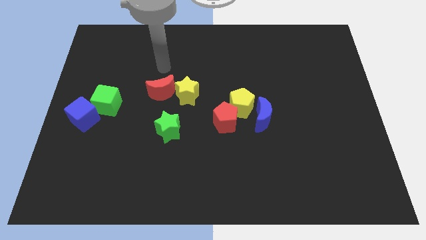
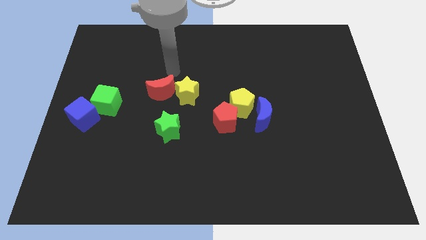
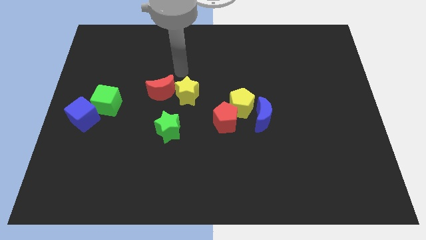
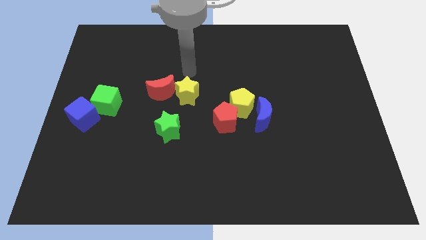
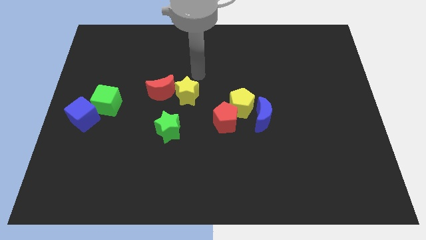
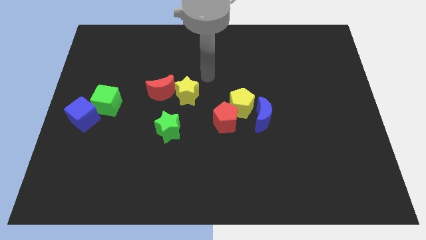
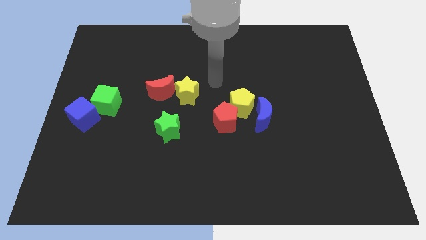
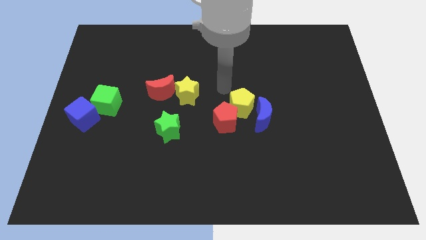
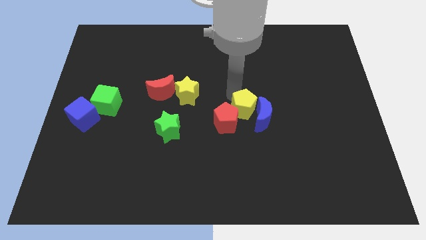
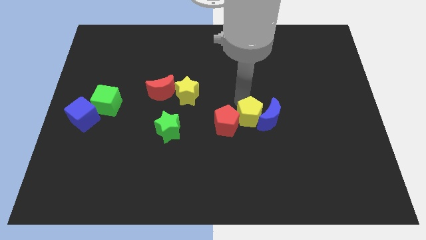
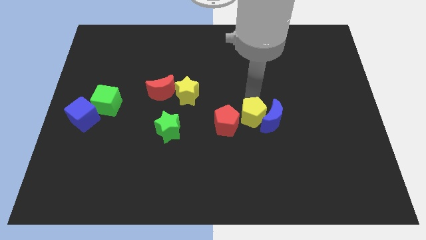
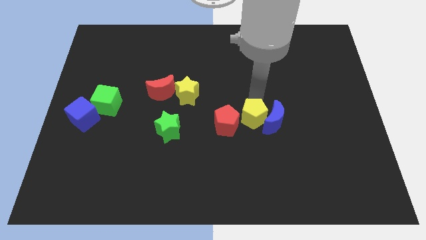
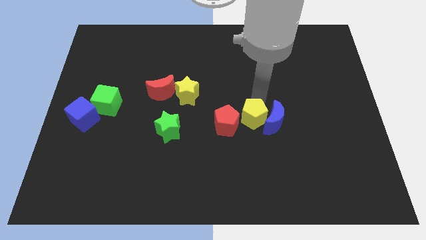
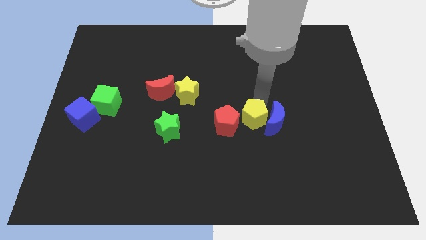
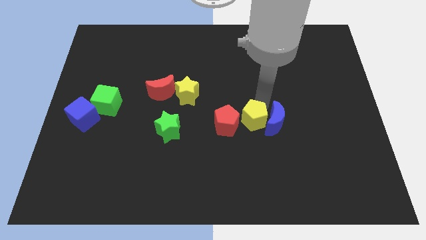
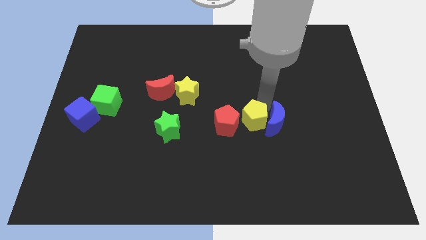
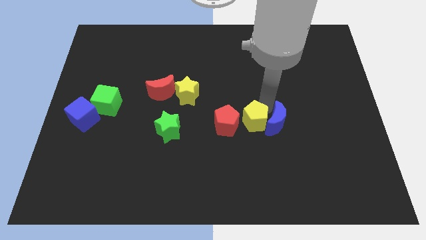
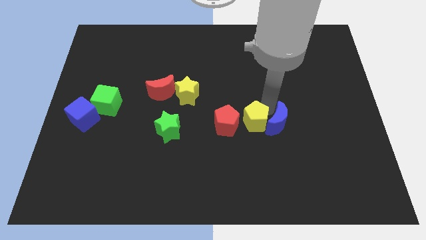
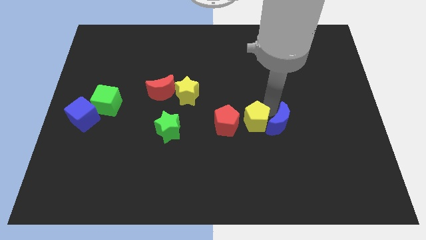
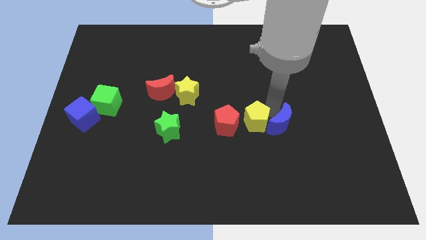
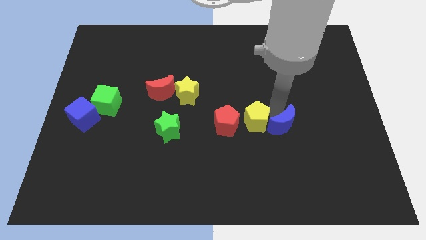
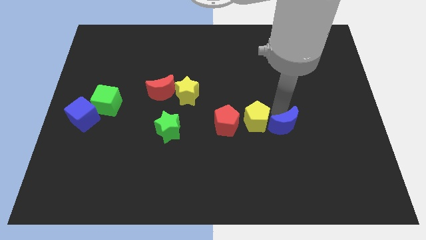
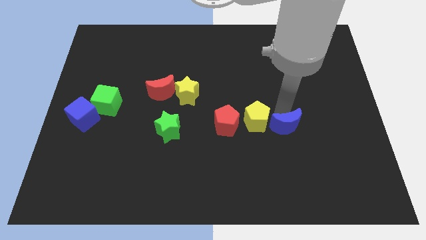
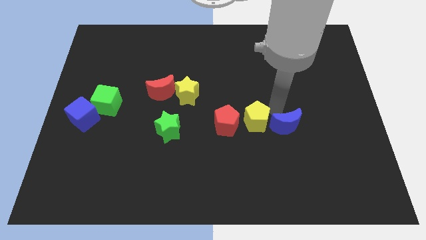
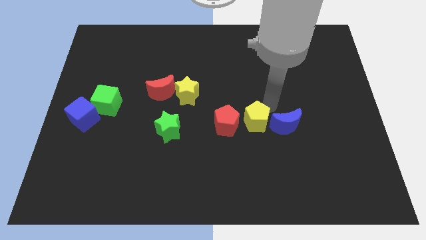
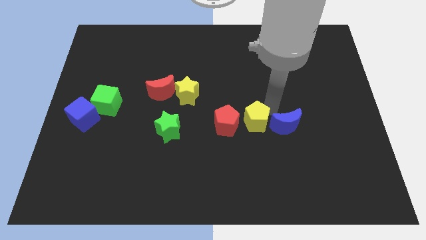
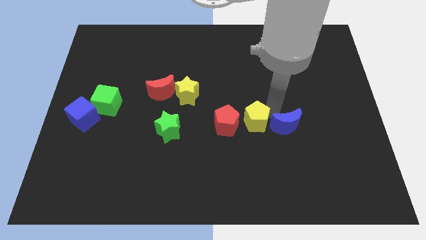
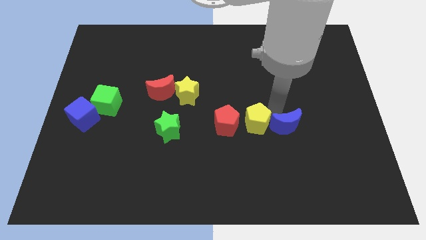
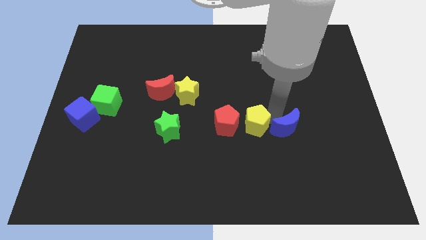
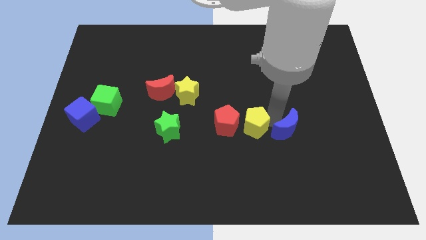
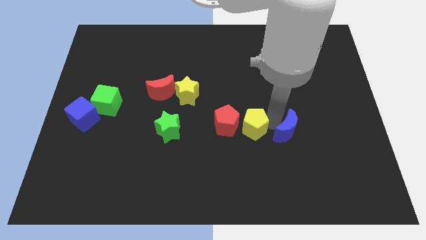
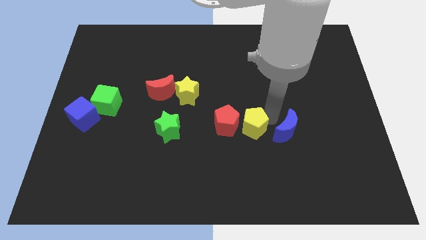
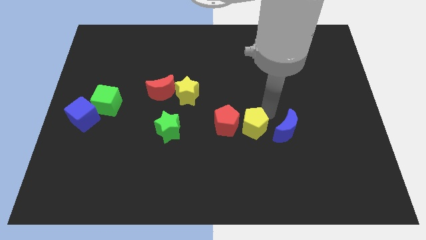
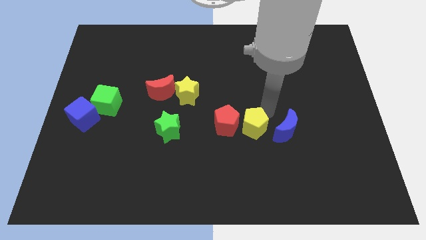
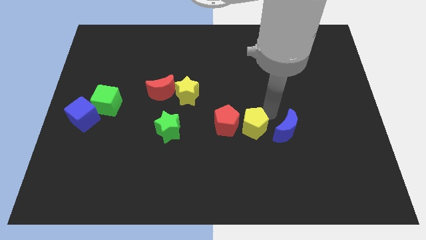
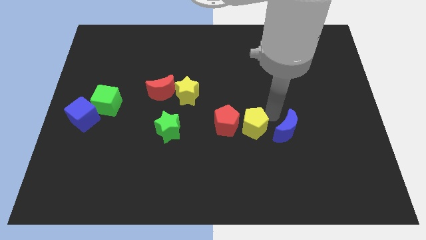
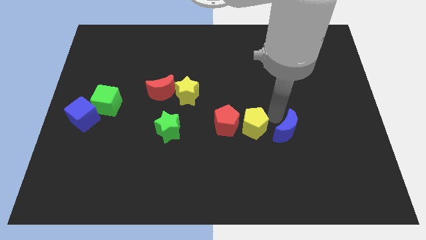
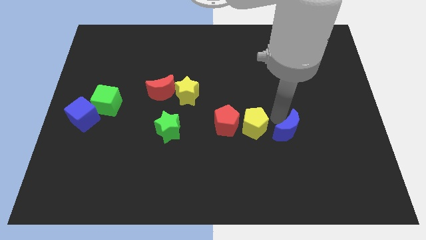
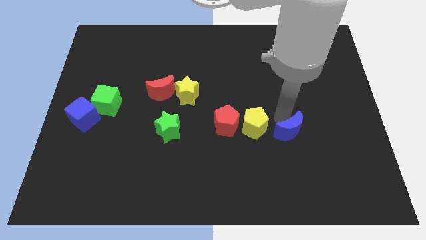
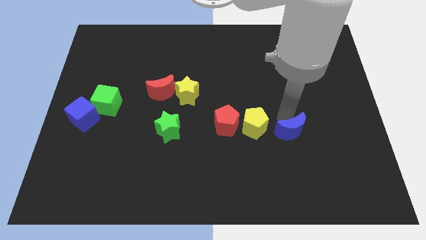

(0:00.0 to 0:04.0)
move the blue moon a little bit down and then to the right

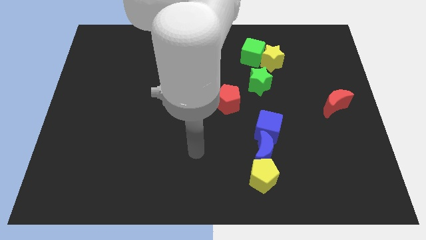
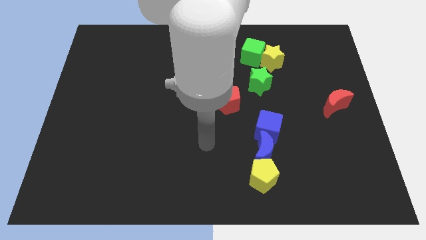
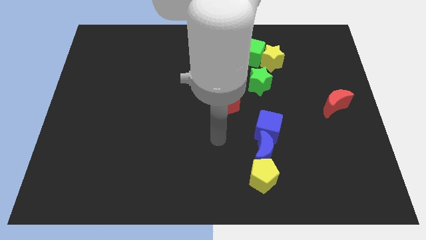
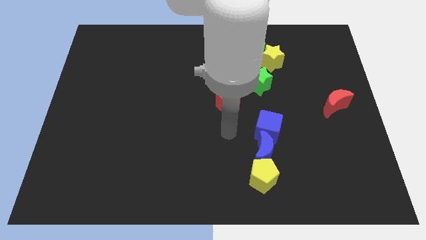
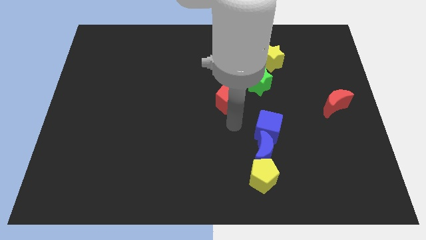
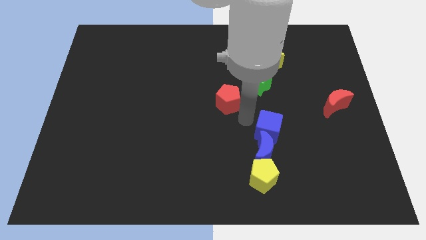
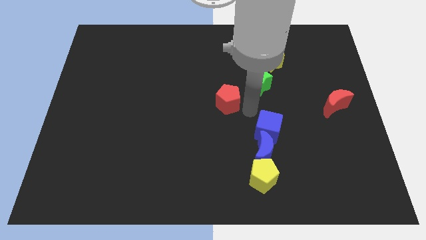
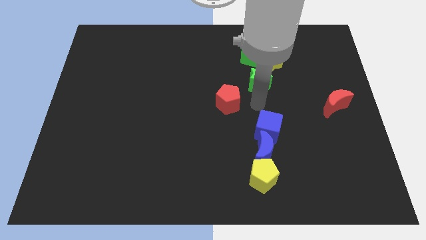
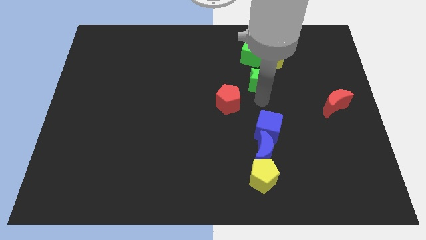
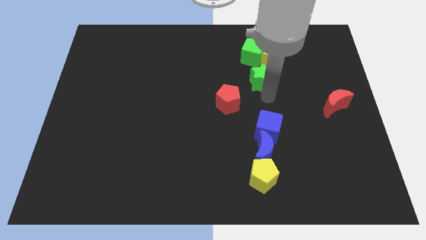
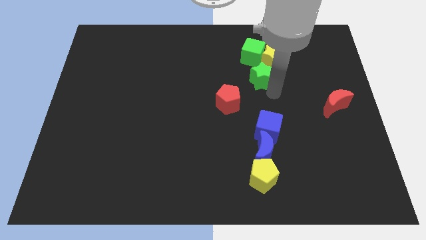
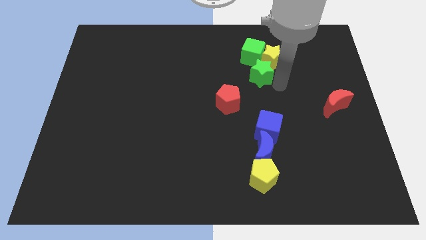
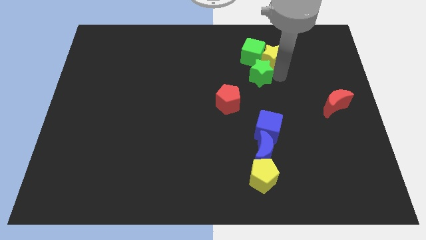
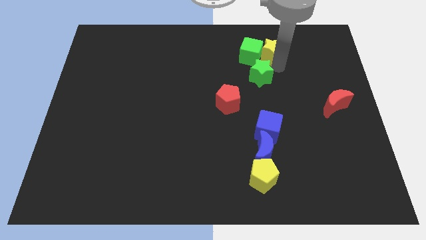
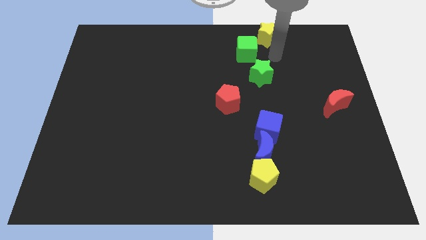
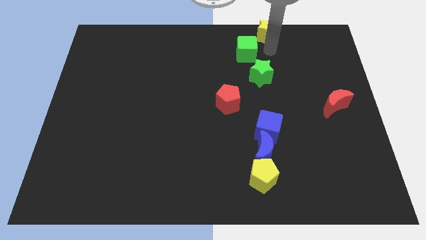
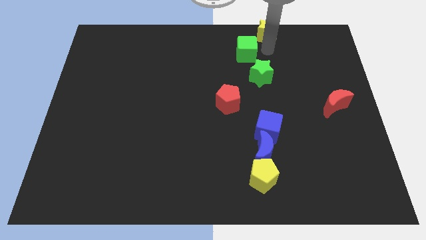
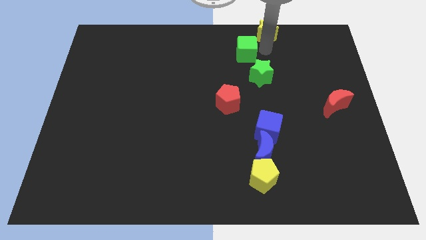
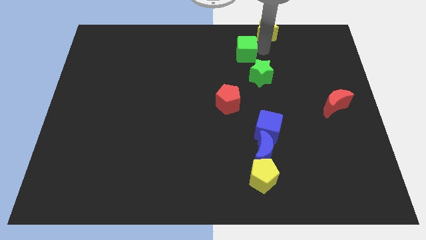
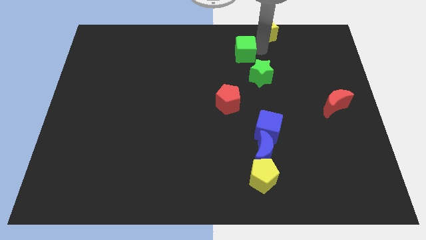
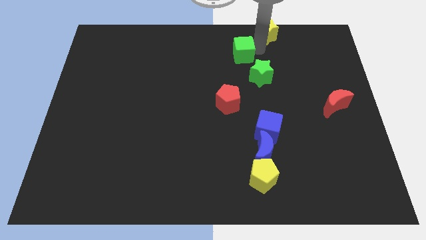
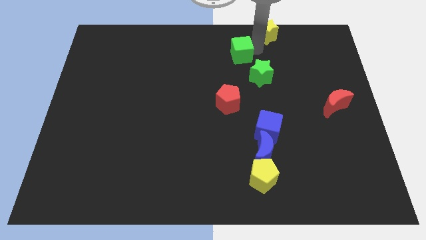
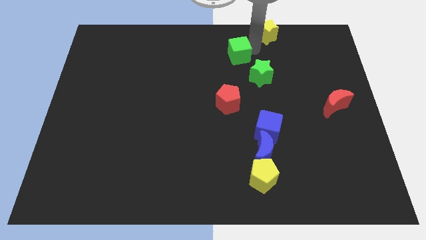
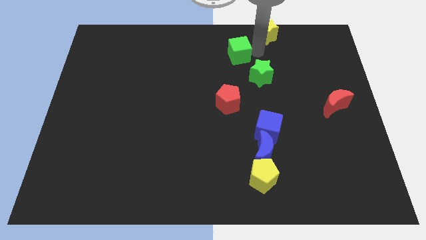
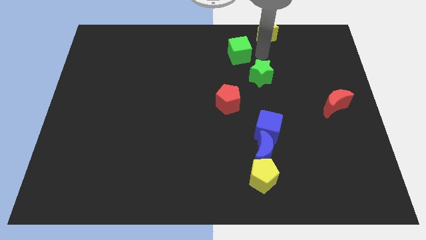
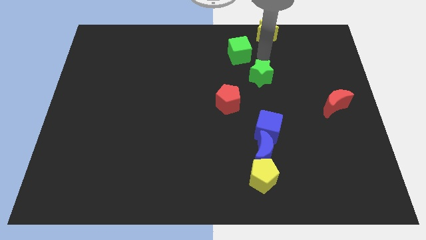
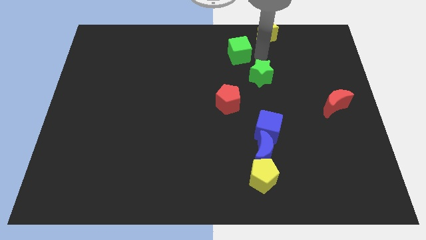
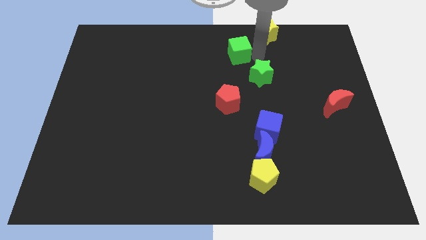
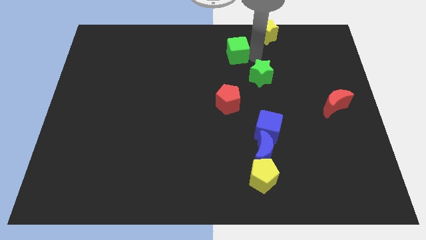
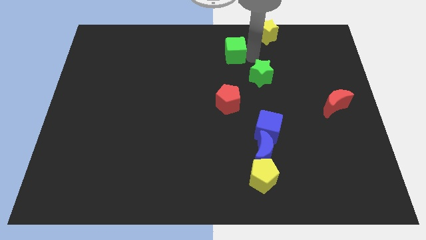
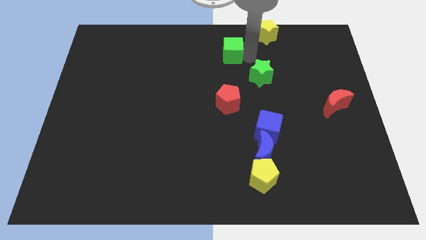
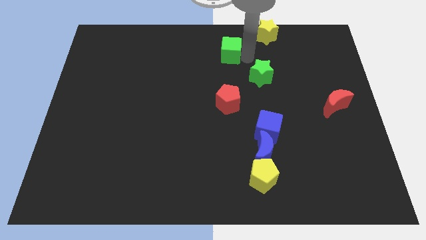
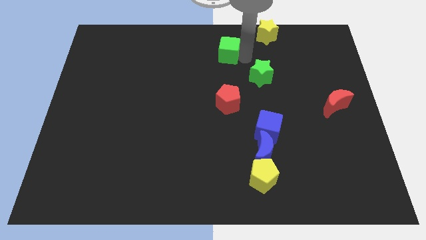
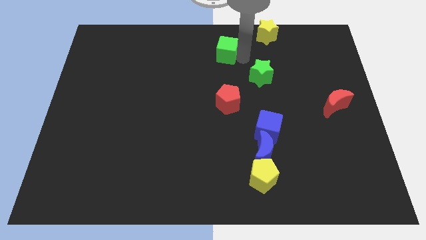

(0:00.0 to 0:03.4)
move the green cube slightly to the left
